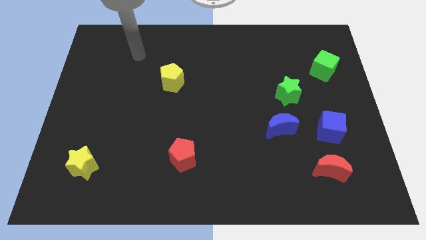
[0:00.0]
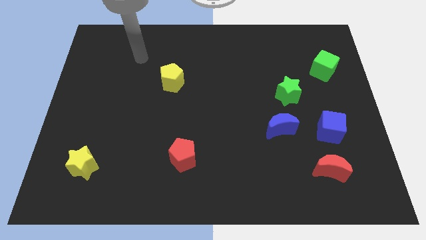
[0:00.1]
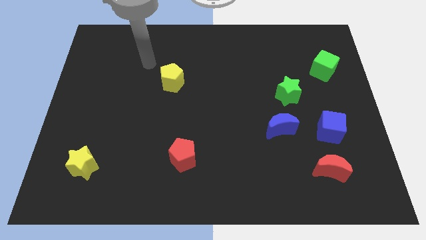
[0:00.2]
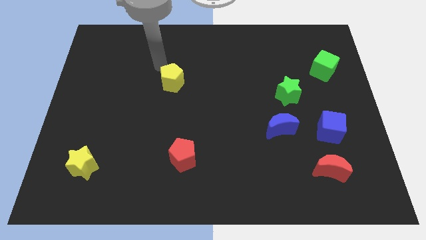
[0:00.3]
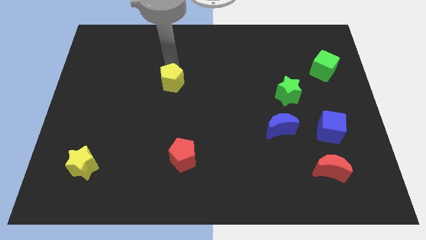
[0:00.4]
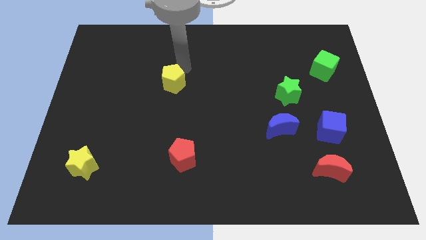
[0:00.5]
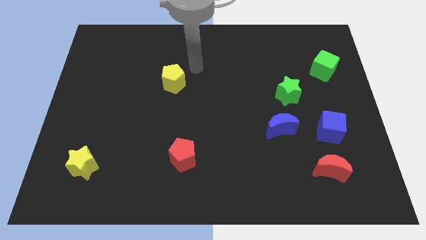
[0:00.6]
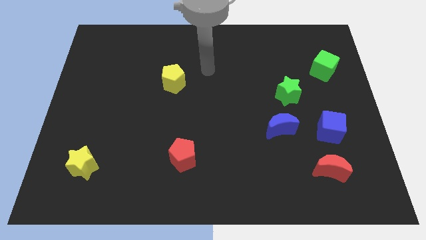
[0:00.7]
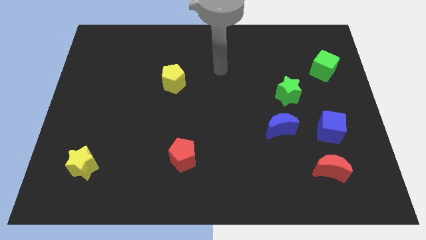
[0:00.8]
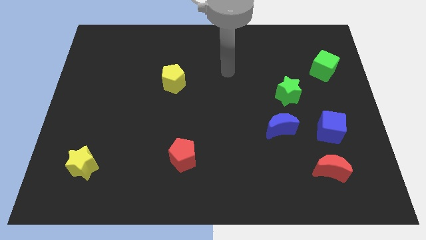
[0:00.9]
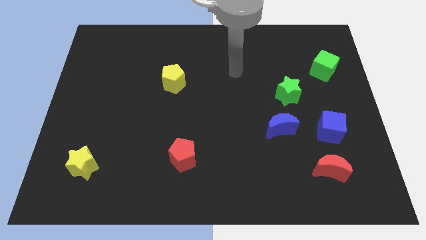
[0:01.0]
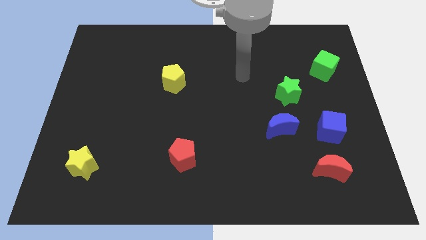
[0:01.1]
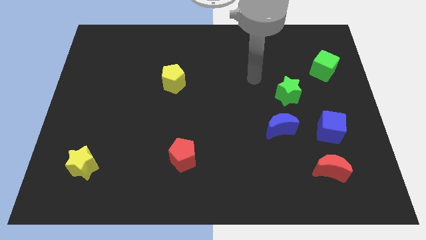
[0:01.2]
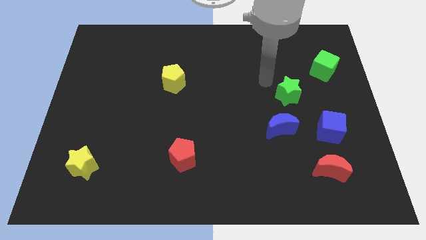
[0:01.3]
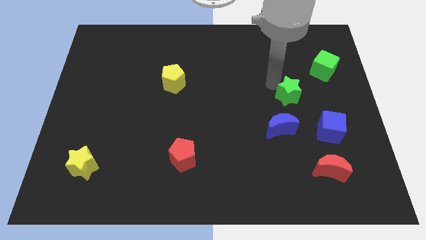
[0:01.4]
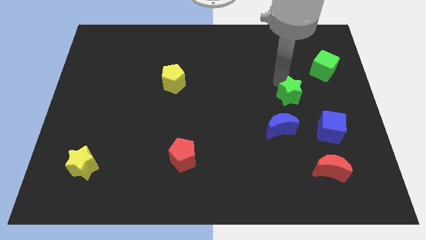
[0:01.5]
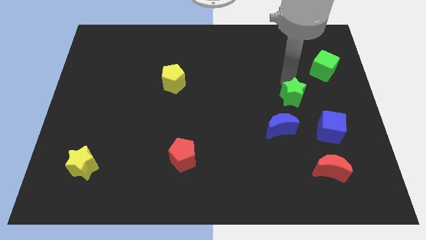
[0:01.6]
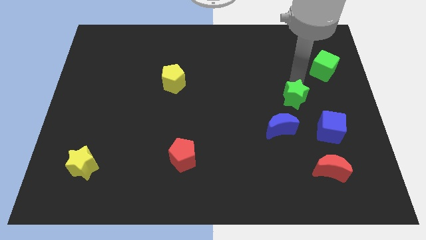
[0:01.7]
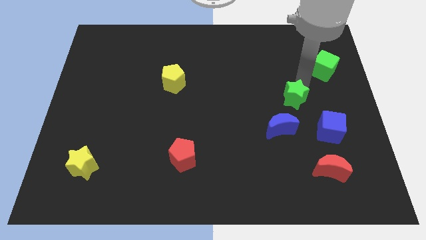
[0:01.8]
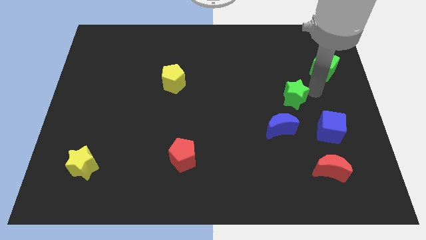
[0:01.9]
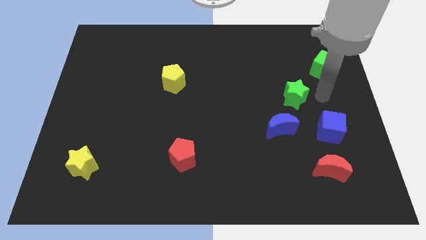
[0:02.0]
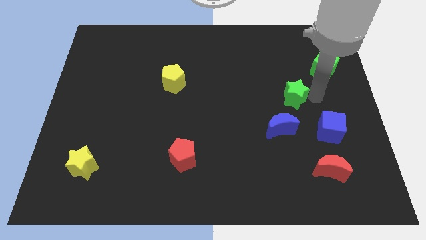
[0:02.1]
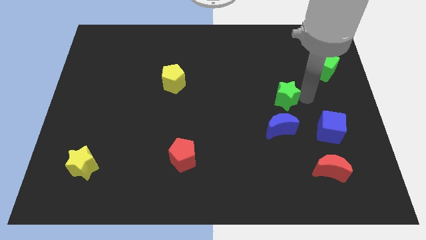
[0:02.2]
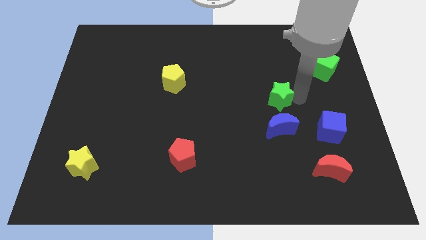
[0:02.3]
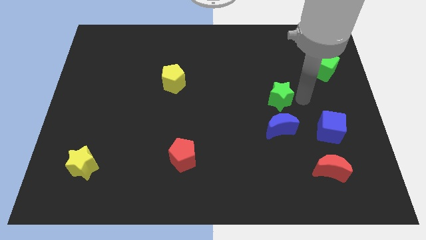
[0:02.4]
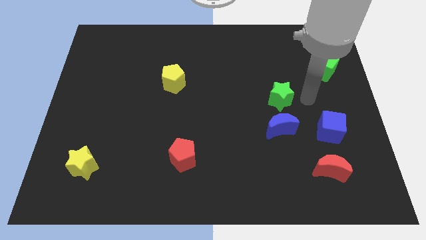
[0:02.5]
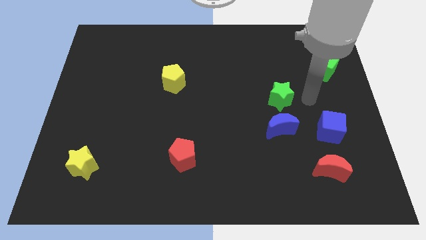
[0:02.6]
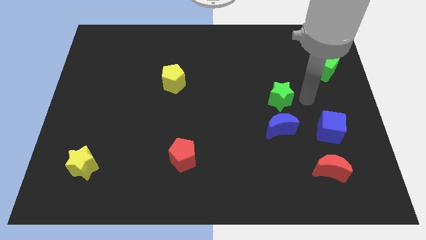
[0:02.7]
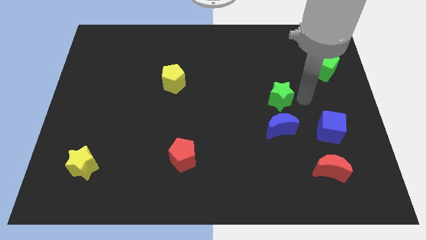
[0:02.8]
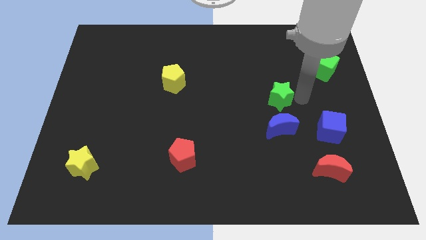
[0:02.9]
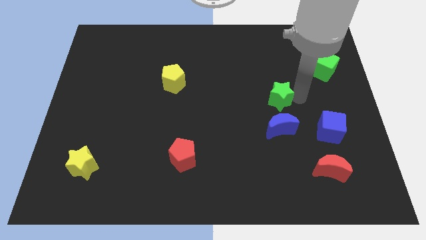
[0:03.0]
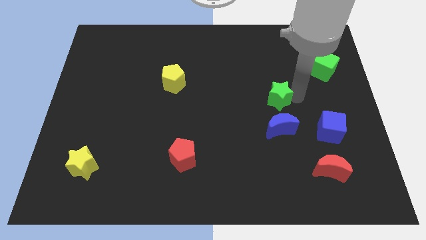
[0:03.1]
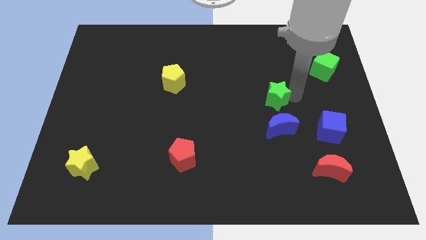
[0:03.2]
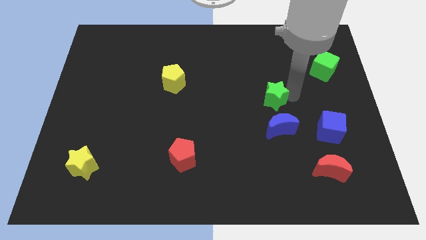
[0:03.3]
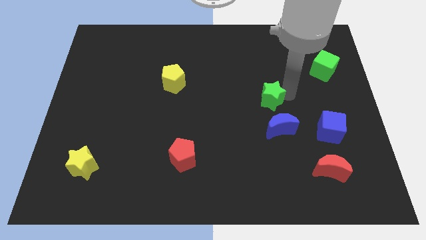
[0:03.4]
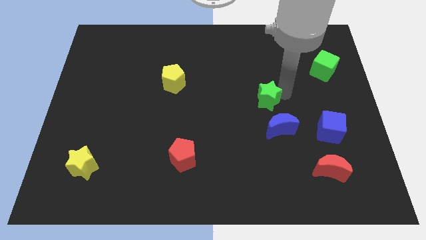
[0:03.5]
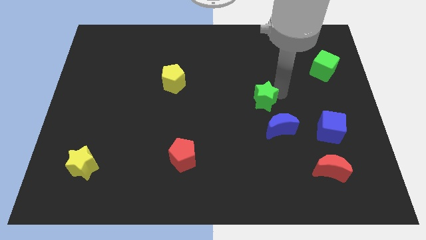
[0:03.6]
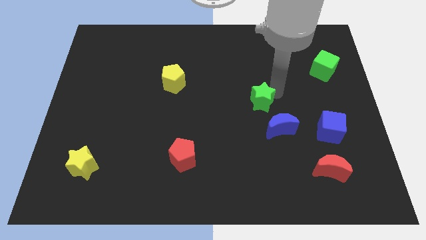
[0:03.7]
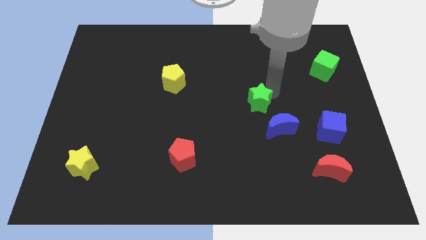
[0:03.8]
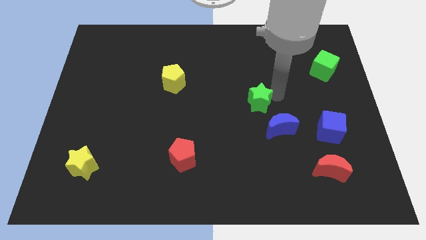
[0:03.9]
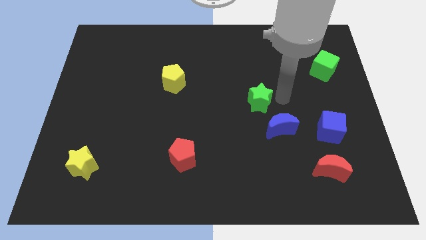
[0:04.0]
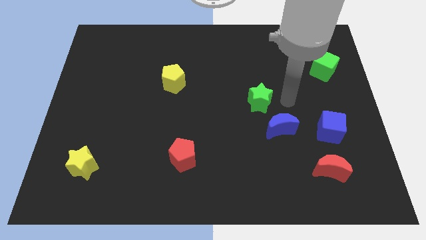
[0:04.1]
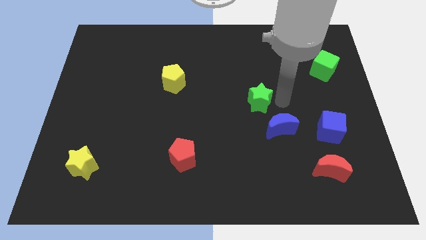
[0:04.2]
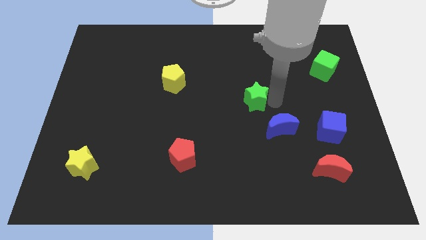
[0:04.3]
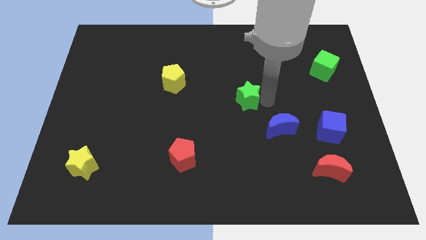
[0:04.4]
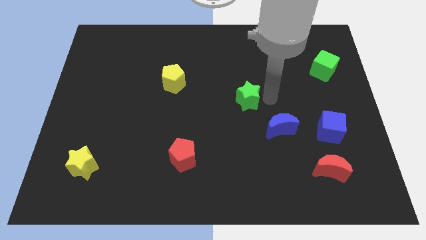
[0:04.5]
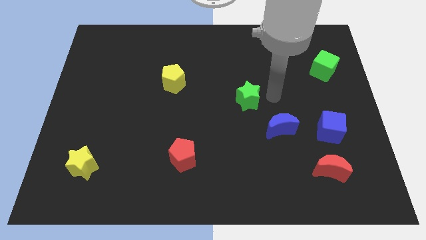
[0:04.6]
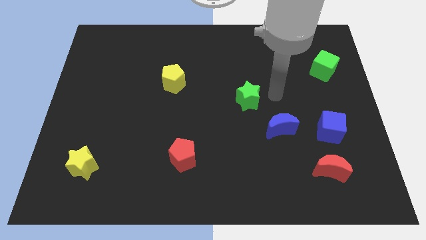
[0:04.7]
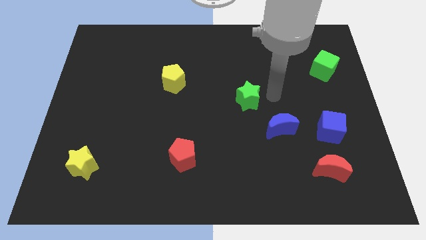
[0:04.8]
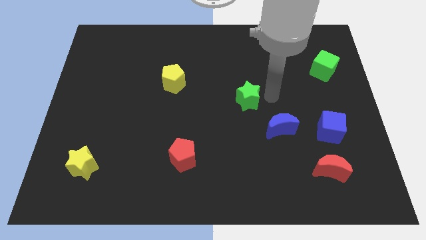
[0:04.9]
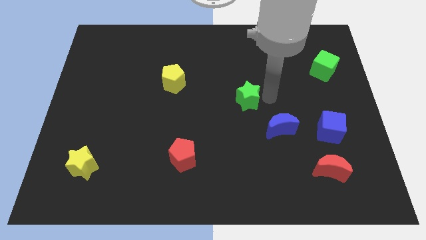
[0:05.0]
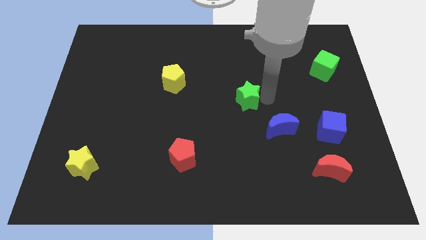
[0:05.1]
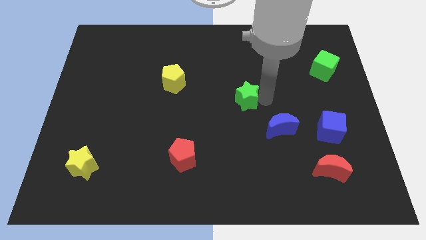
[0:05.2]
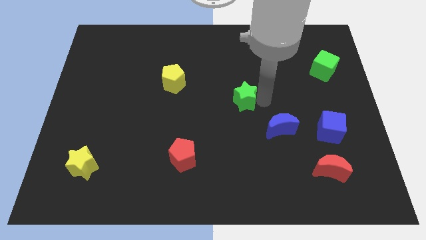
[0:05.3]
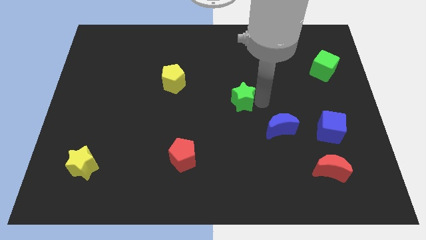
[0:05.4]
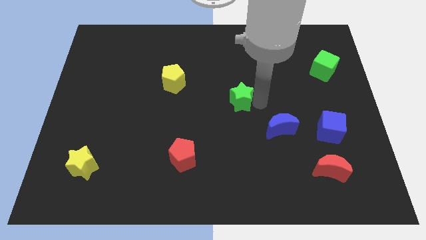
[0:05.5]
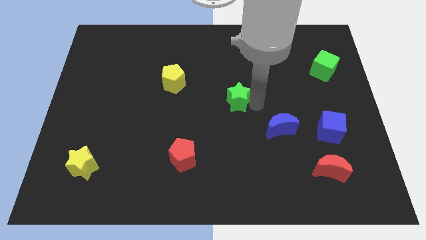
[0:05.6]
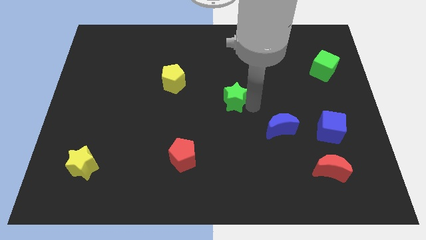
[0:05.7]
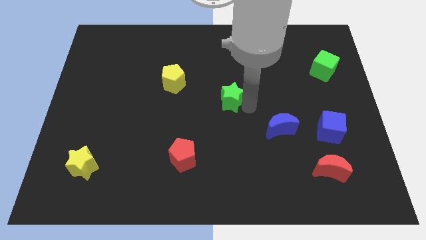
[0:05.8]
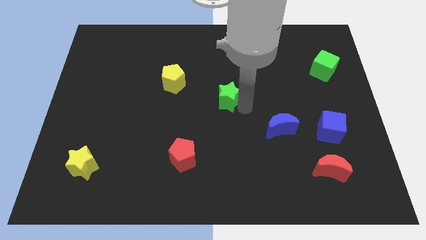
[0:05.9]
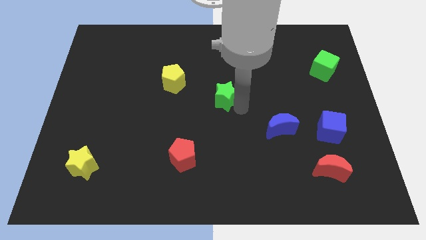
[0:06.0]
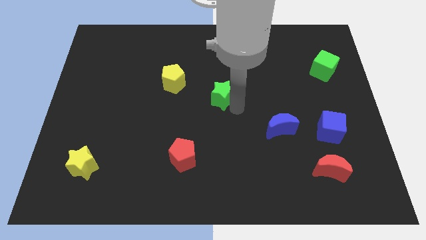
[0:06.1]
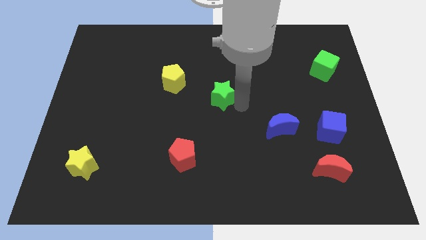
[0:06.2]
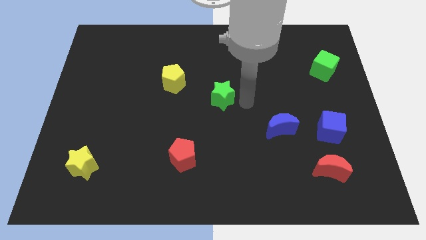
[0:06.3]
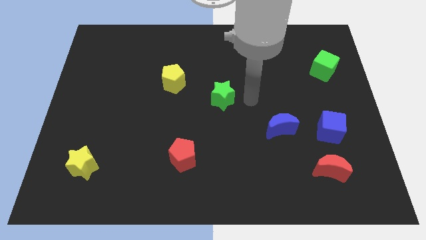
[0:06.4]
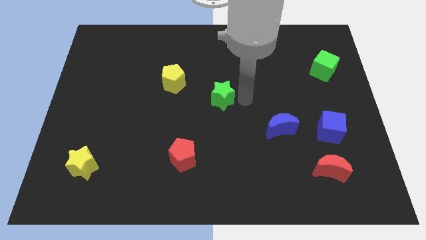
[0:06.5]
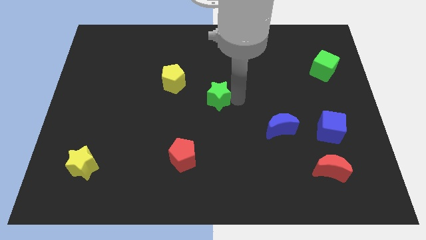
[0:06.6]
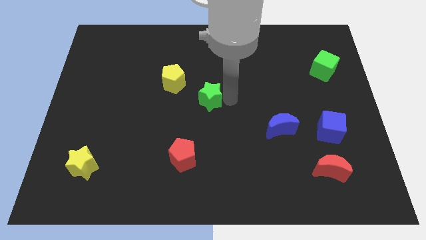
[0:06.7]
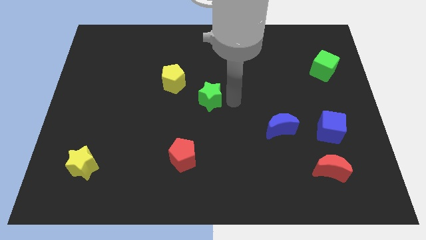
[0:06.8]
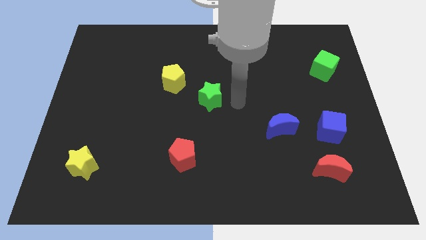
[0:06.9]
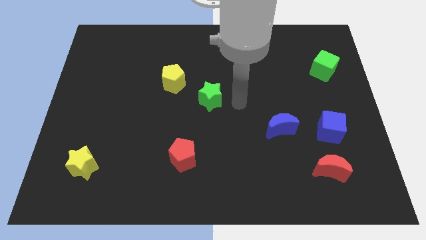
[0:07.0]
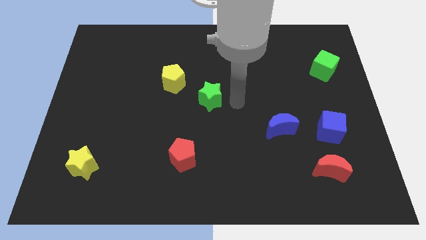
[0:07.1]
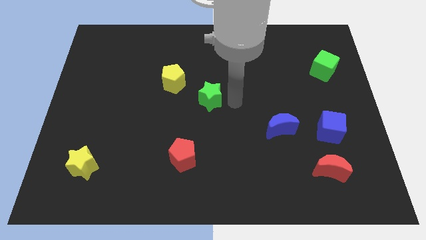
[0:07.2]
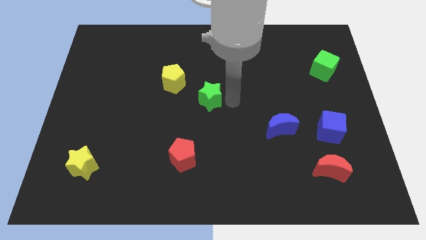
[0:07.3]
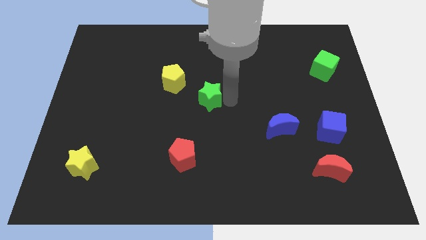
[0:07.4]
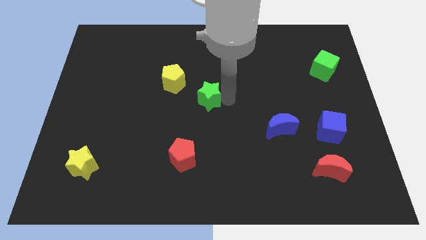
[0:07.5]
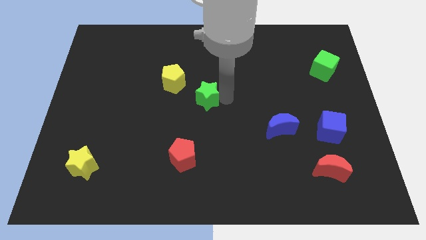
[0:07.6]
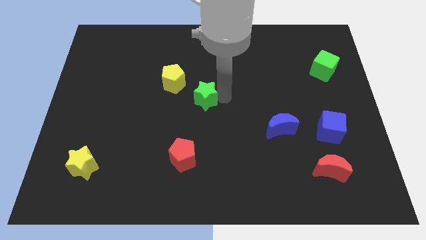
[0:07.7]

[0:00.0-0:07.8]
slide the green star to the left

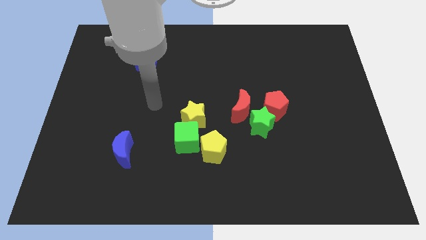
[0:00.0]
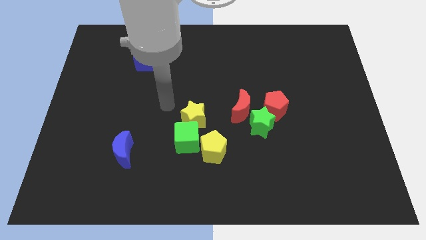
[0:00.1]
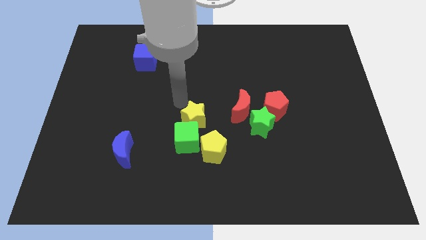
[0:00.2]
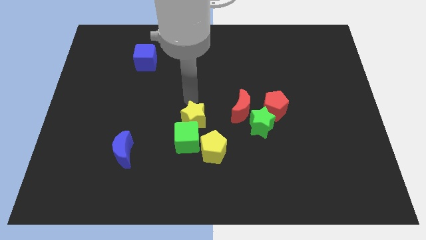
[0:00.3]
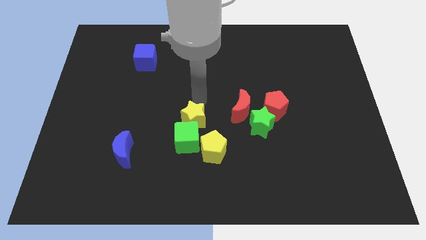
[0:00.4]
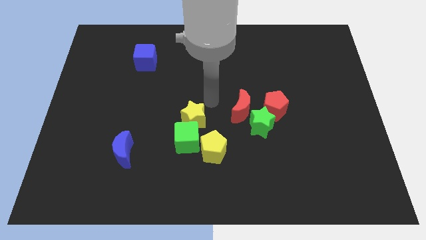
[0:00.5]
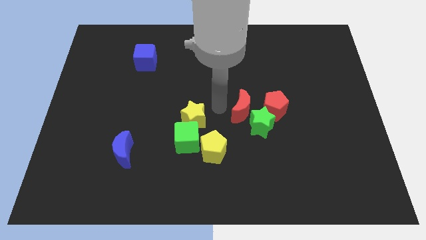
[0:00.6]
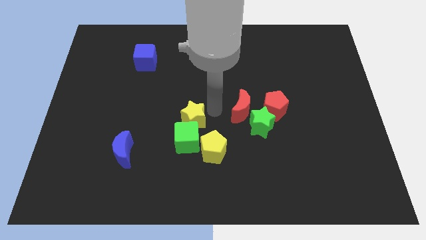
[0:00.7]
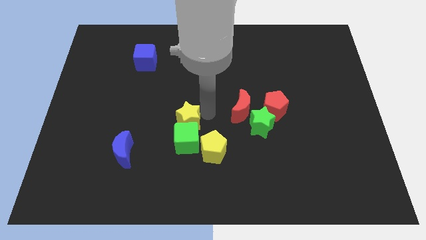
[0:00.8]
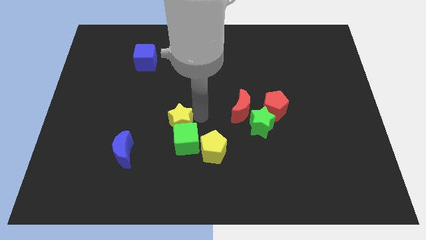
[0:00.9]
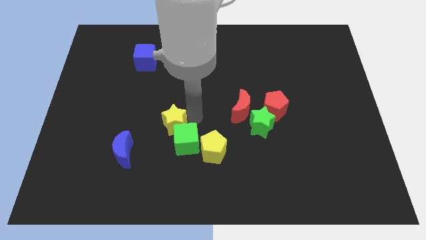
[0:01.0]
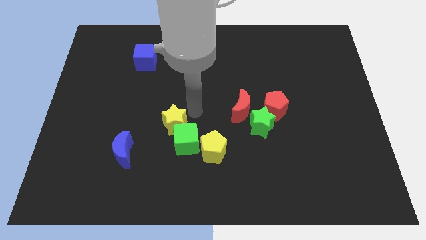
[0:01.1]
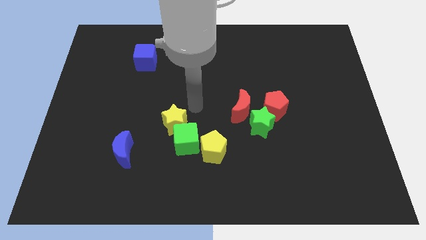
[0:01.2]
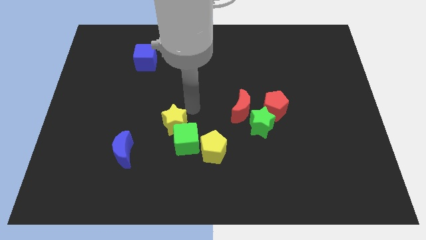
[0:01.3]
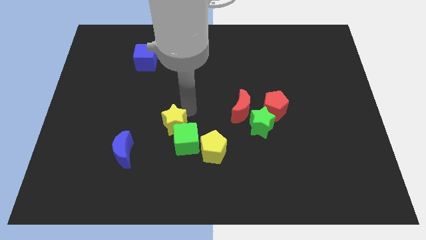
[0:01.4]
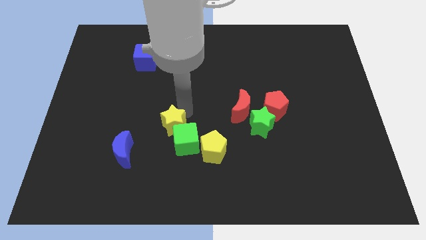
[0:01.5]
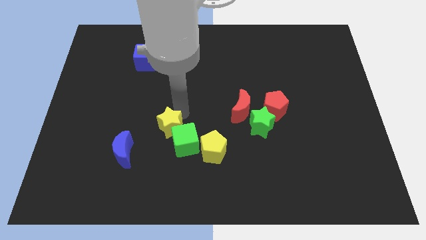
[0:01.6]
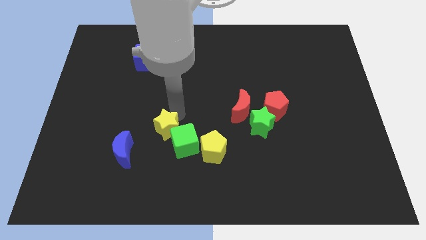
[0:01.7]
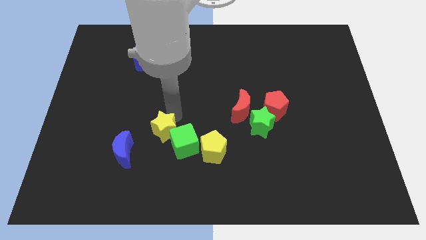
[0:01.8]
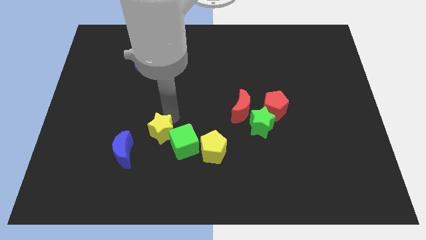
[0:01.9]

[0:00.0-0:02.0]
slide the yellow star downwards and then to the left a little
